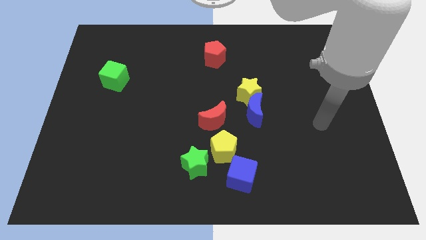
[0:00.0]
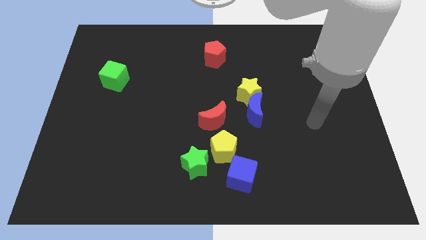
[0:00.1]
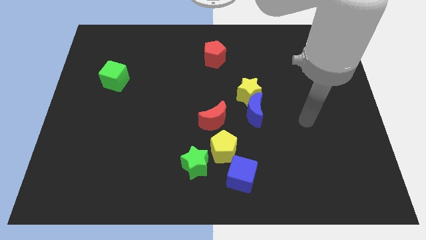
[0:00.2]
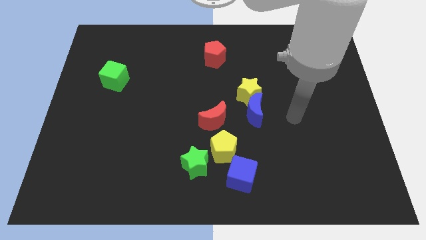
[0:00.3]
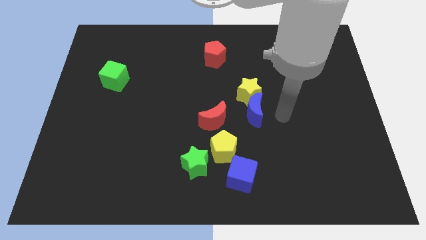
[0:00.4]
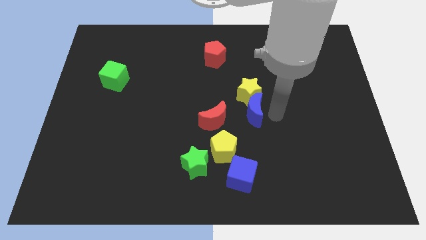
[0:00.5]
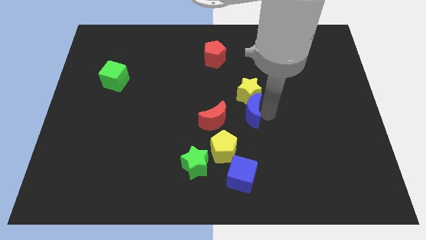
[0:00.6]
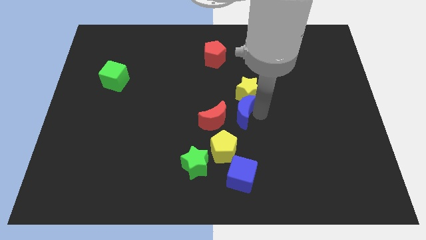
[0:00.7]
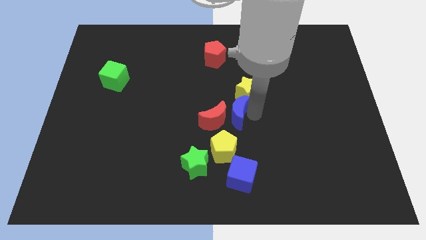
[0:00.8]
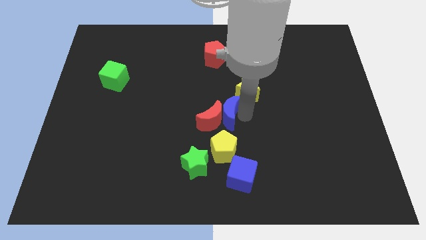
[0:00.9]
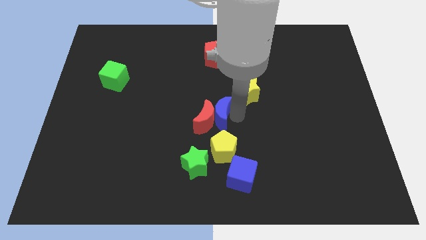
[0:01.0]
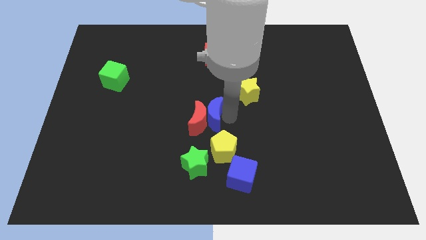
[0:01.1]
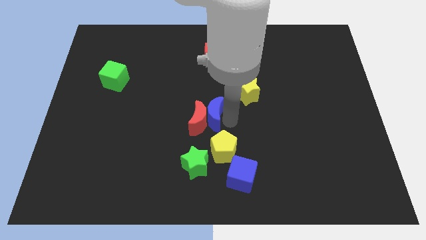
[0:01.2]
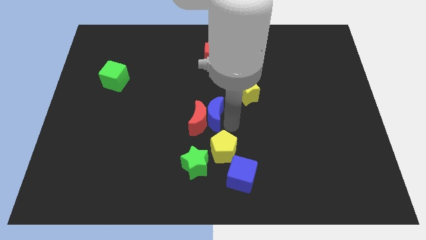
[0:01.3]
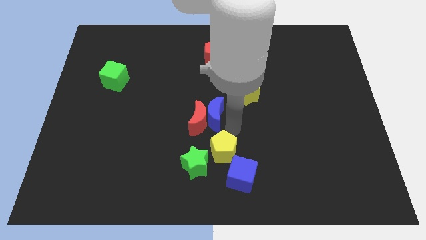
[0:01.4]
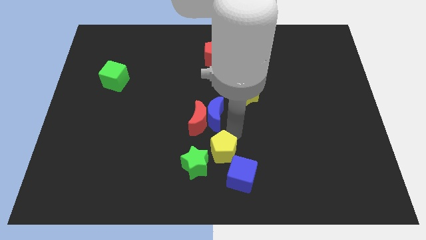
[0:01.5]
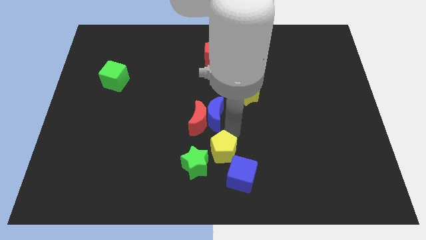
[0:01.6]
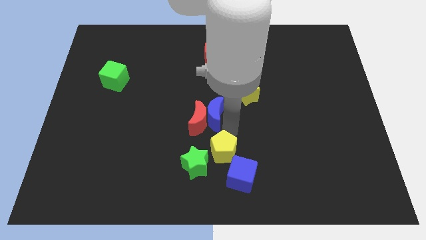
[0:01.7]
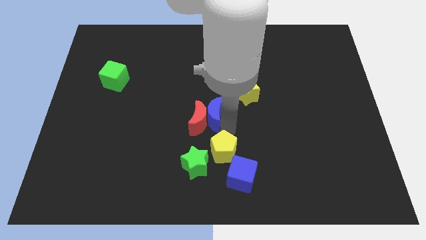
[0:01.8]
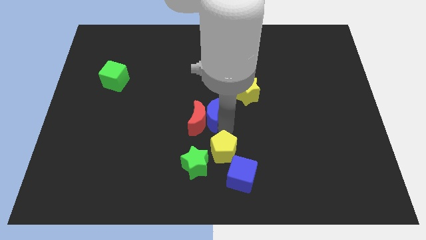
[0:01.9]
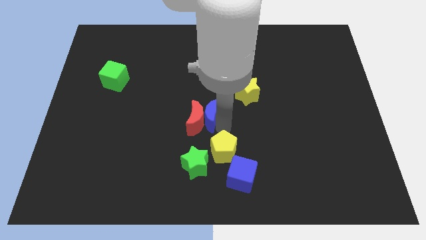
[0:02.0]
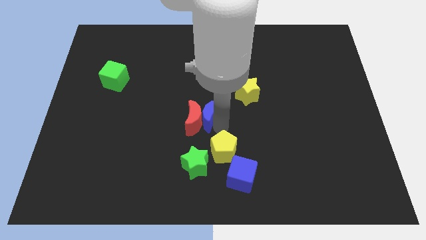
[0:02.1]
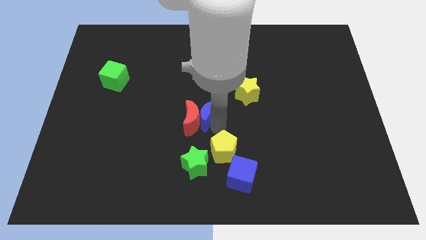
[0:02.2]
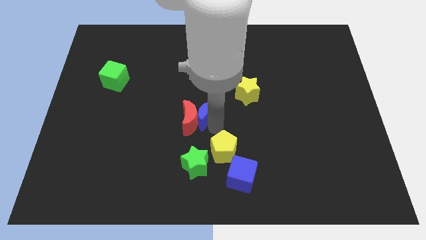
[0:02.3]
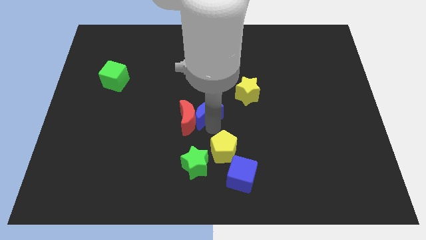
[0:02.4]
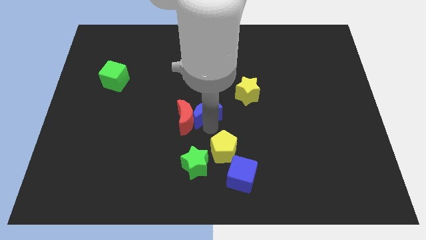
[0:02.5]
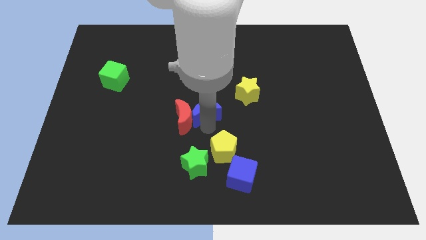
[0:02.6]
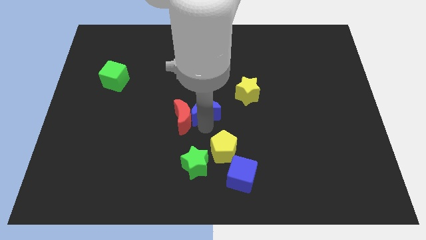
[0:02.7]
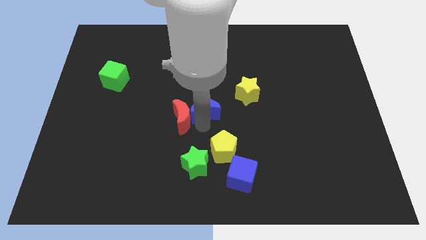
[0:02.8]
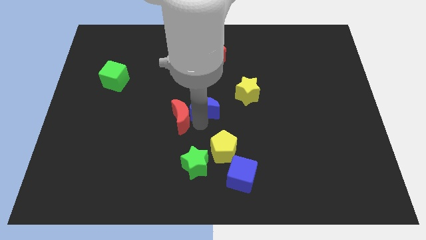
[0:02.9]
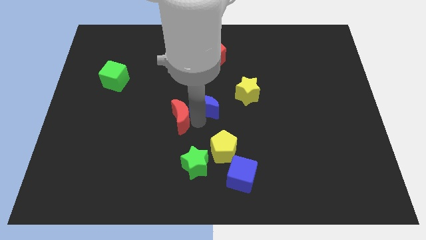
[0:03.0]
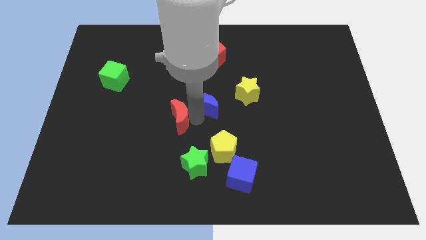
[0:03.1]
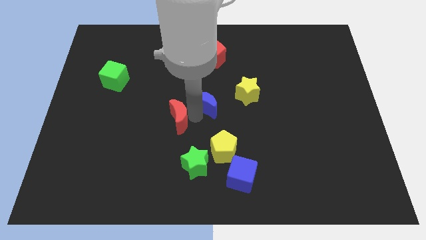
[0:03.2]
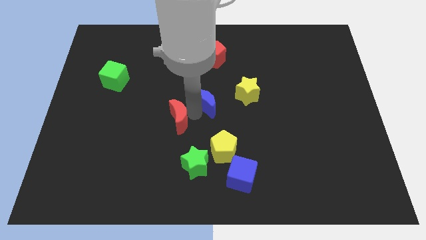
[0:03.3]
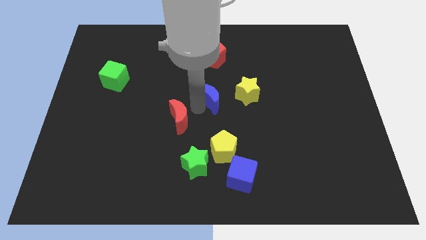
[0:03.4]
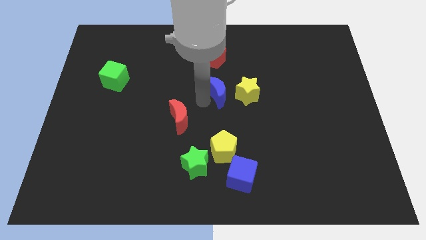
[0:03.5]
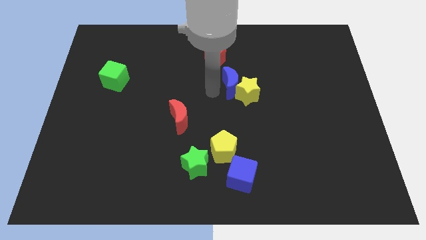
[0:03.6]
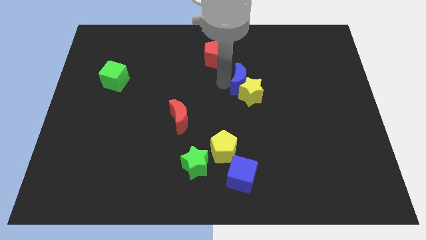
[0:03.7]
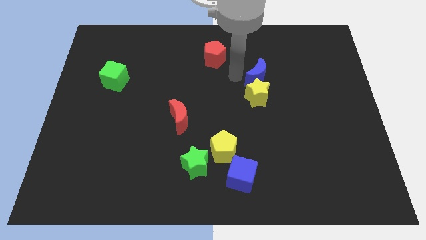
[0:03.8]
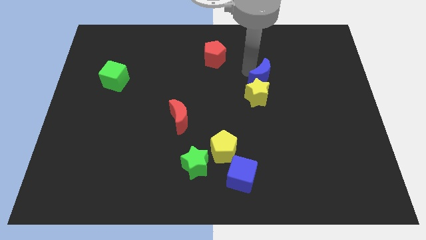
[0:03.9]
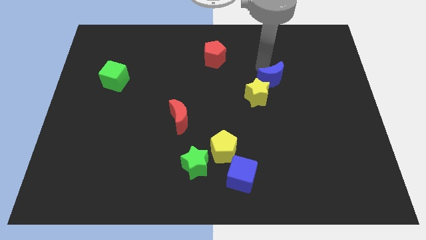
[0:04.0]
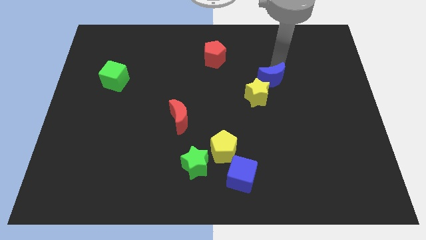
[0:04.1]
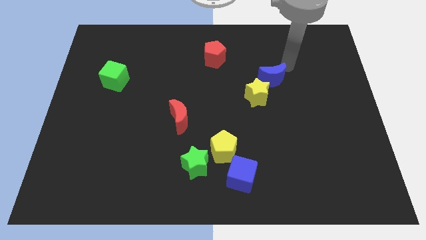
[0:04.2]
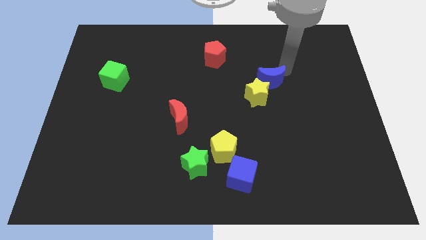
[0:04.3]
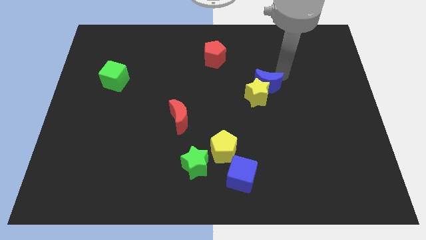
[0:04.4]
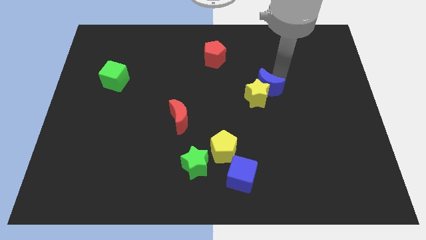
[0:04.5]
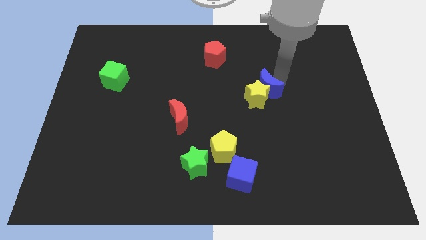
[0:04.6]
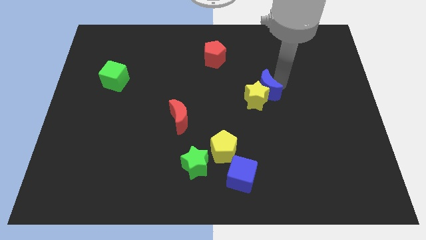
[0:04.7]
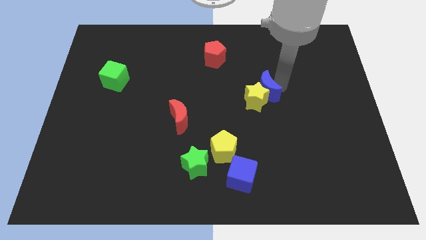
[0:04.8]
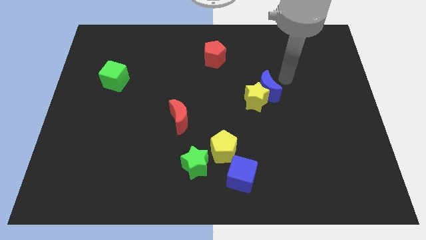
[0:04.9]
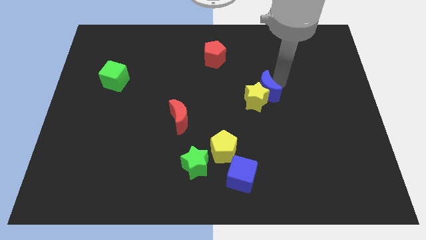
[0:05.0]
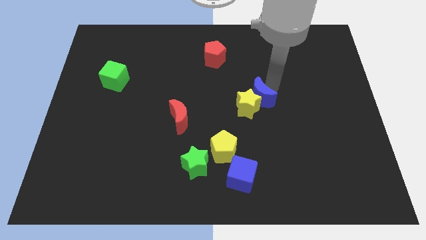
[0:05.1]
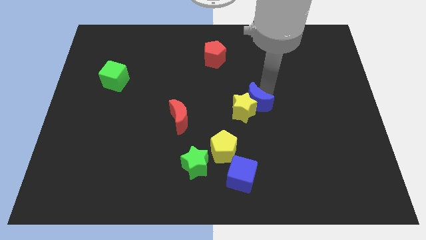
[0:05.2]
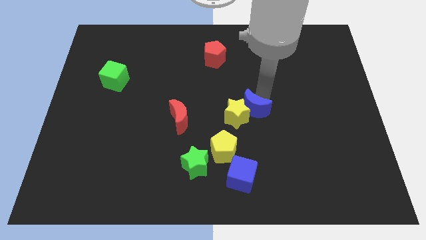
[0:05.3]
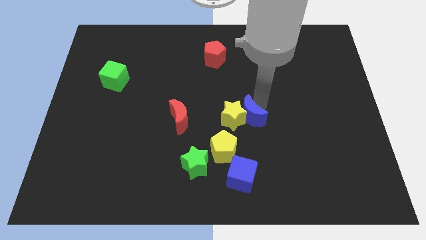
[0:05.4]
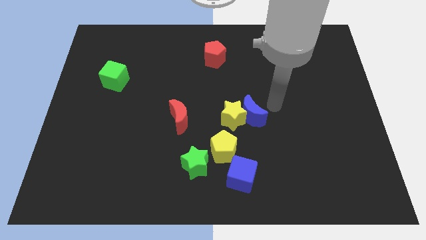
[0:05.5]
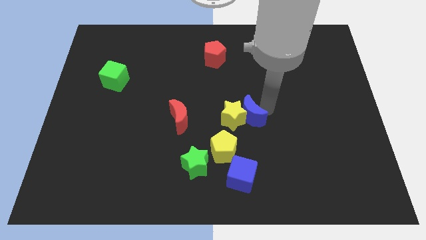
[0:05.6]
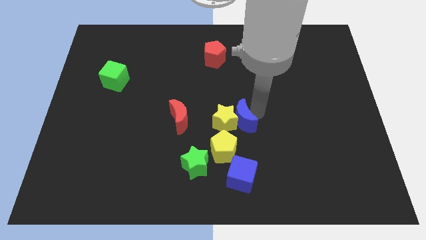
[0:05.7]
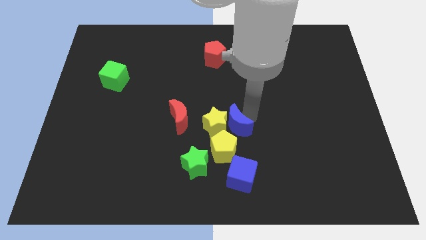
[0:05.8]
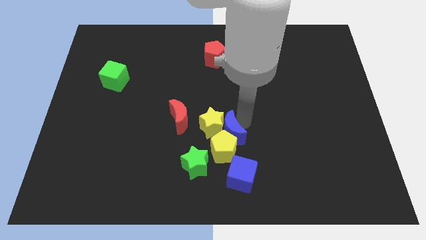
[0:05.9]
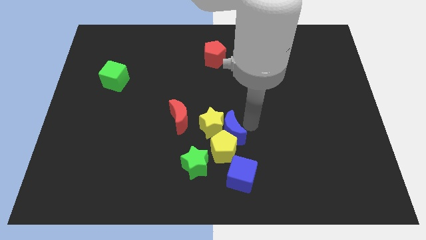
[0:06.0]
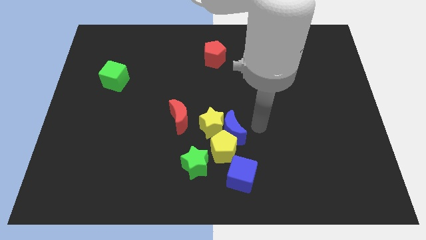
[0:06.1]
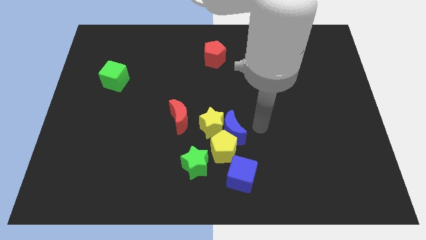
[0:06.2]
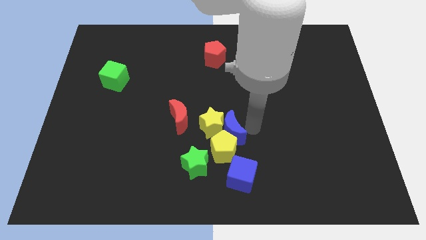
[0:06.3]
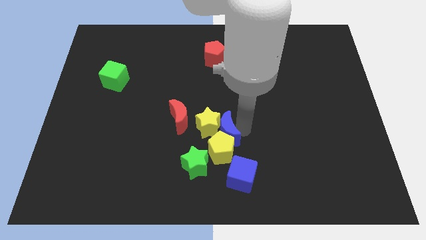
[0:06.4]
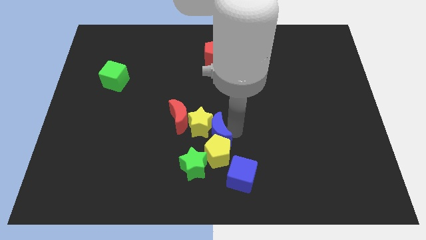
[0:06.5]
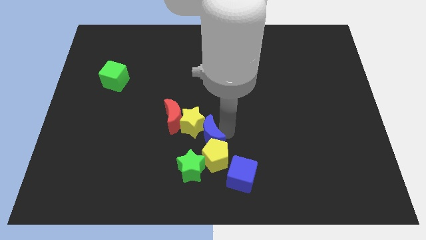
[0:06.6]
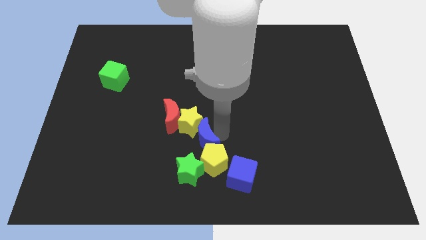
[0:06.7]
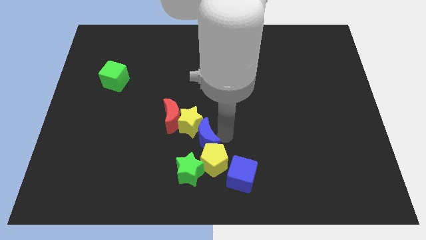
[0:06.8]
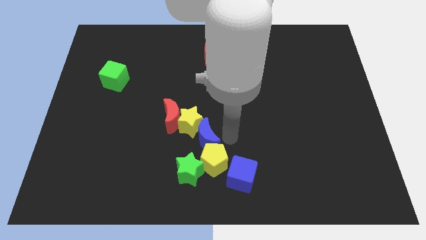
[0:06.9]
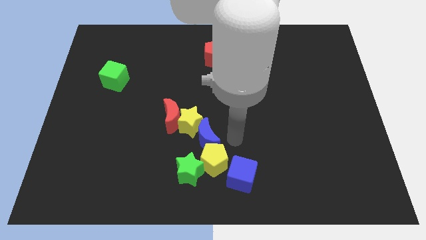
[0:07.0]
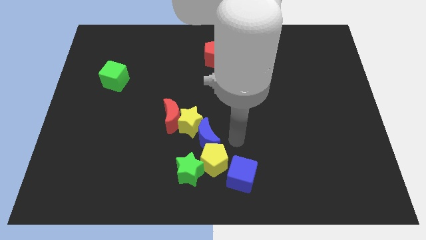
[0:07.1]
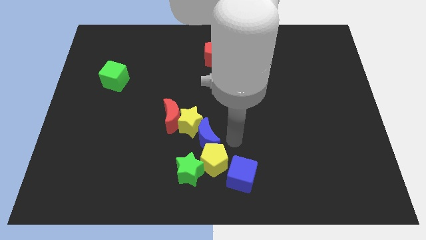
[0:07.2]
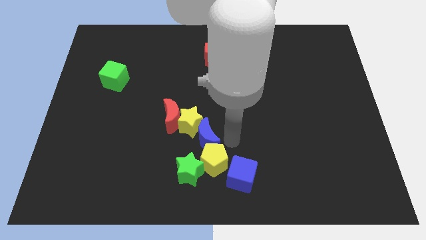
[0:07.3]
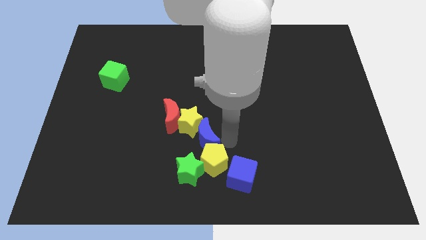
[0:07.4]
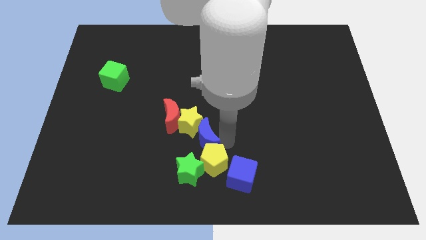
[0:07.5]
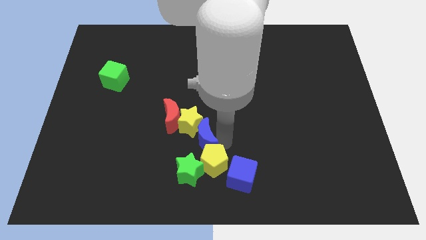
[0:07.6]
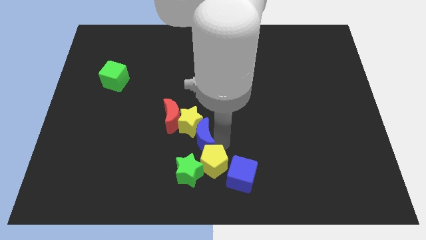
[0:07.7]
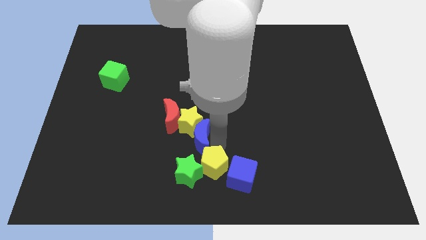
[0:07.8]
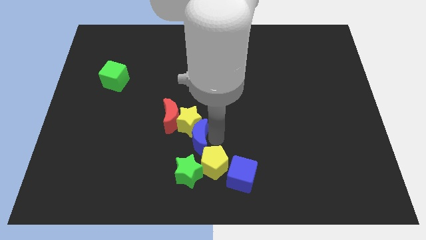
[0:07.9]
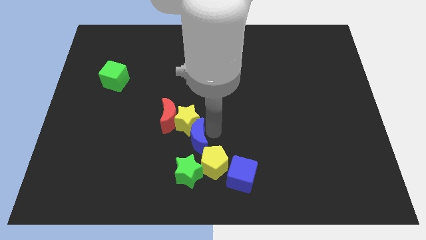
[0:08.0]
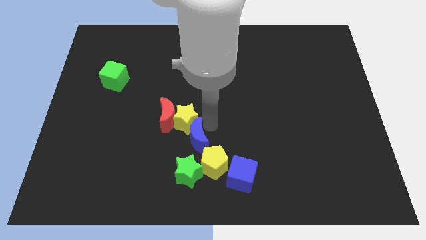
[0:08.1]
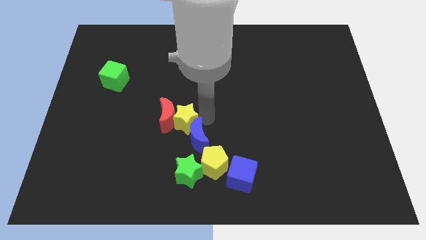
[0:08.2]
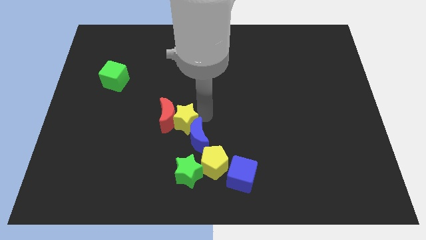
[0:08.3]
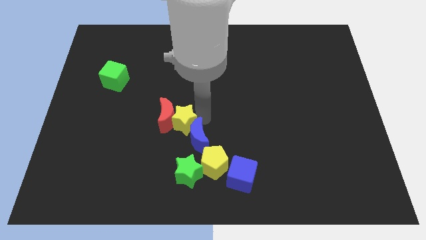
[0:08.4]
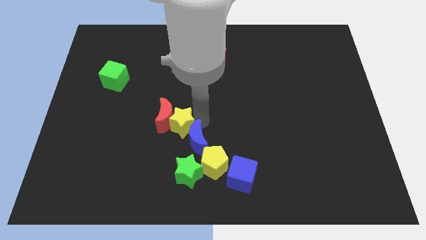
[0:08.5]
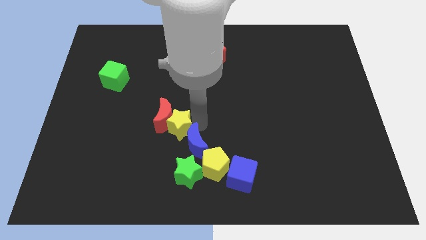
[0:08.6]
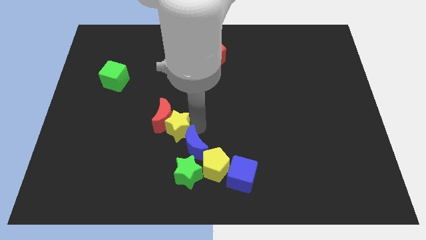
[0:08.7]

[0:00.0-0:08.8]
push the blue moon next to the green star
